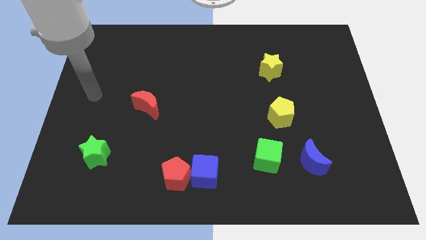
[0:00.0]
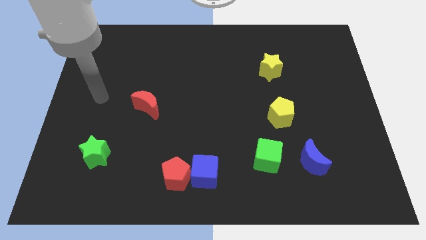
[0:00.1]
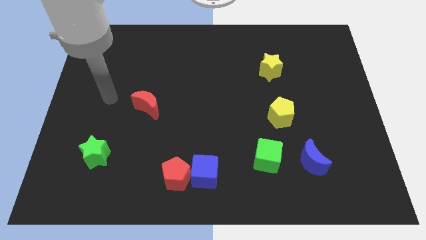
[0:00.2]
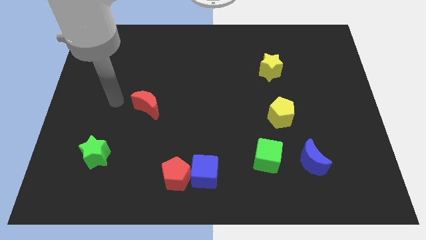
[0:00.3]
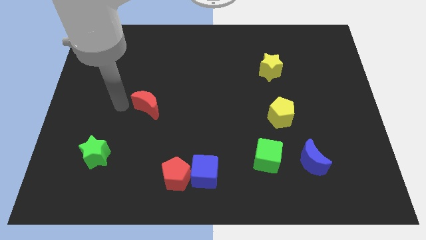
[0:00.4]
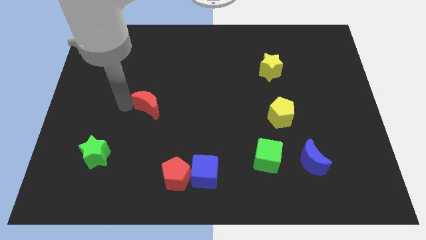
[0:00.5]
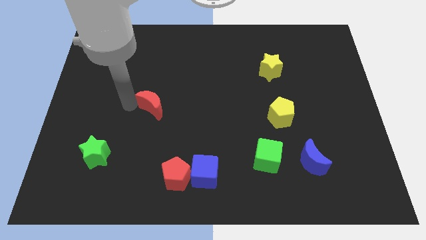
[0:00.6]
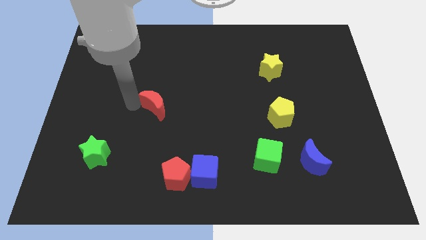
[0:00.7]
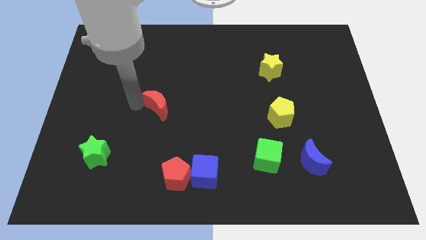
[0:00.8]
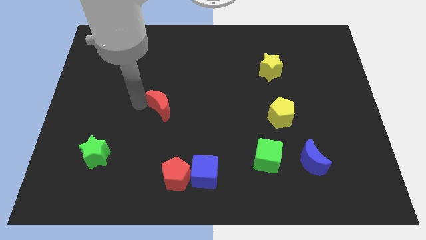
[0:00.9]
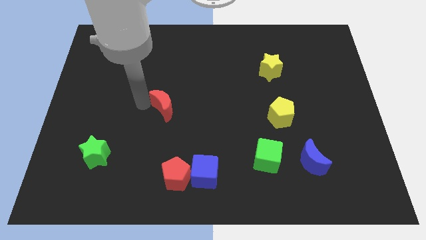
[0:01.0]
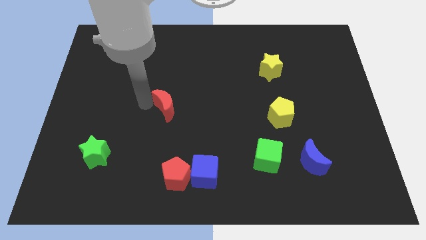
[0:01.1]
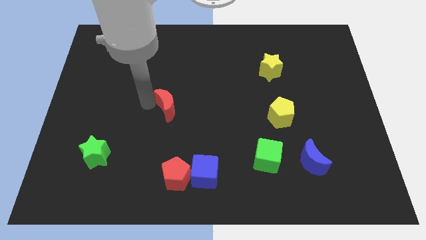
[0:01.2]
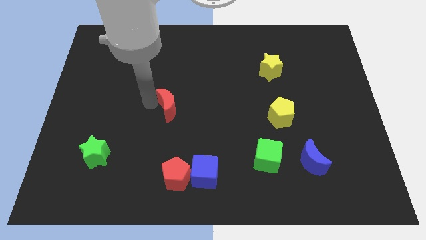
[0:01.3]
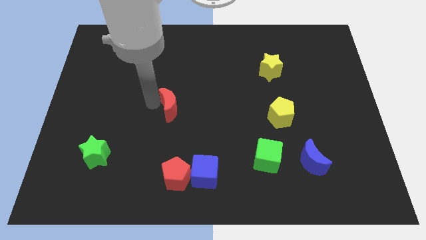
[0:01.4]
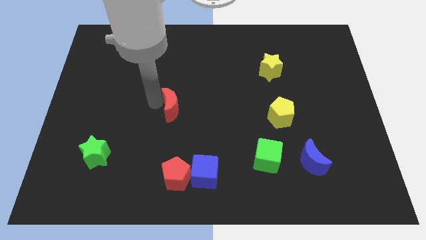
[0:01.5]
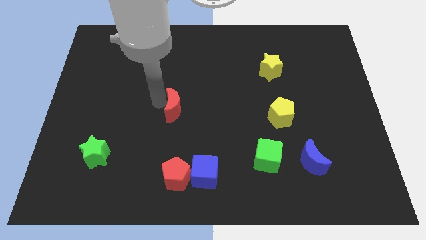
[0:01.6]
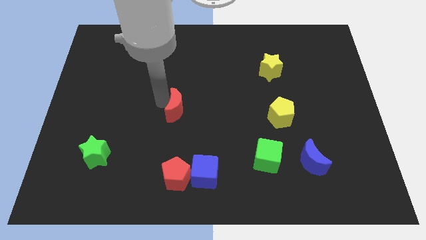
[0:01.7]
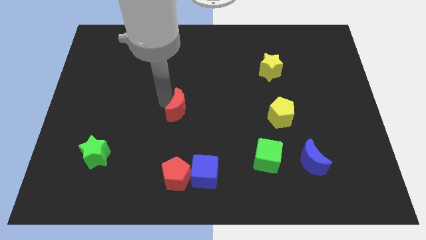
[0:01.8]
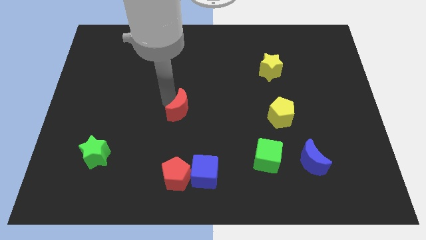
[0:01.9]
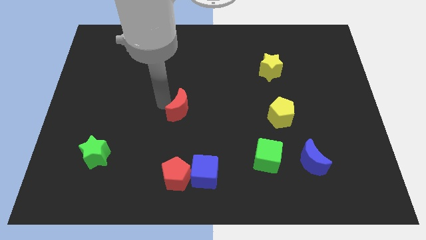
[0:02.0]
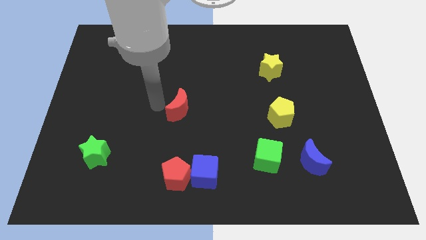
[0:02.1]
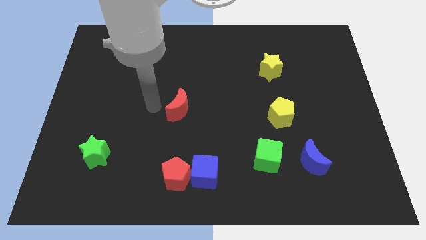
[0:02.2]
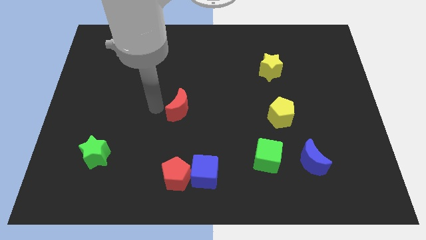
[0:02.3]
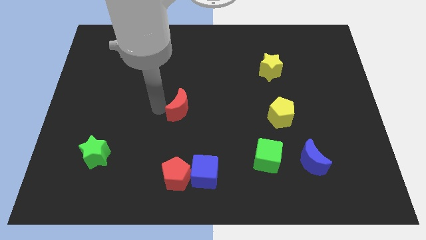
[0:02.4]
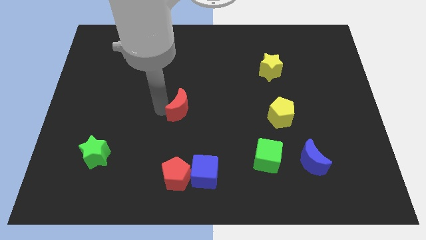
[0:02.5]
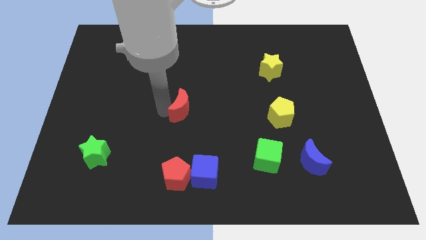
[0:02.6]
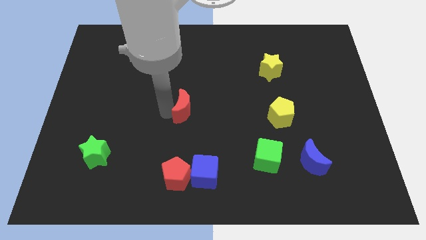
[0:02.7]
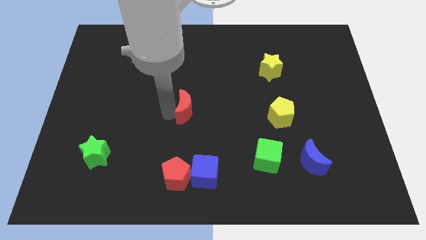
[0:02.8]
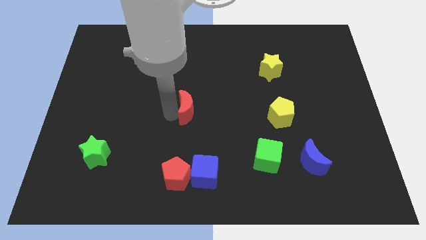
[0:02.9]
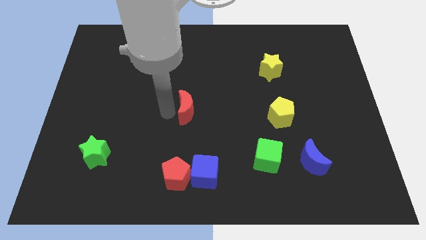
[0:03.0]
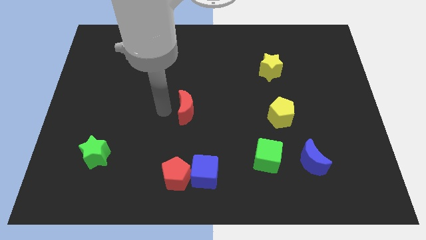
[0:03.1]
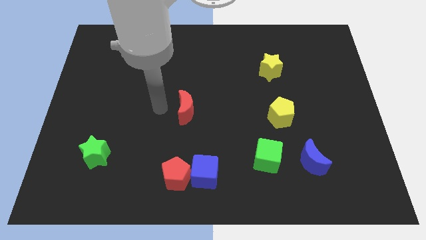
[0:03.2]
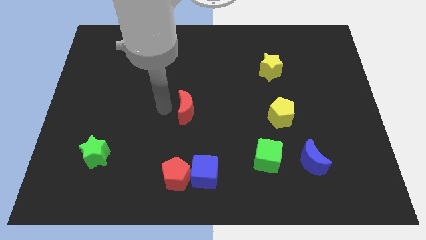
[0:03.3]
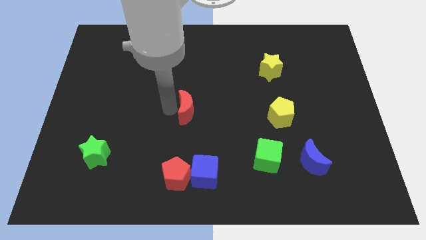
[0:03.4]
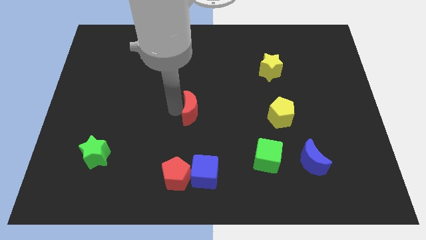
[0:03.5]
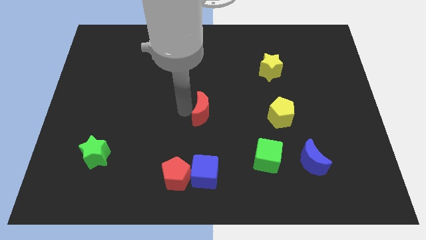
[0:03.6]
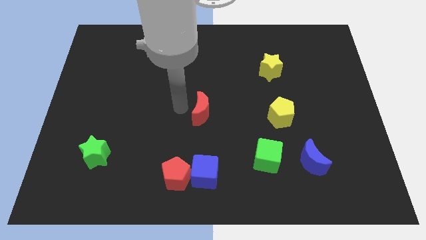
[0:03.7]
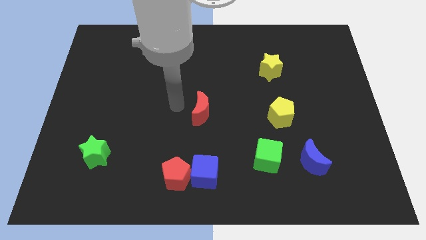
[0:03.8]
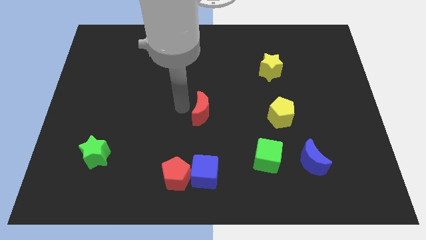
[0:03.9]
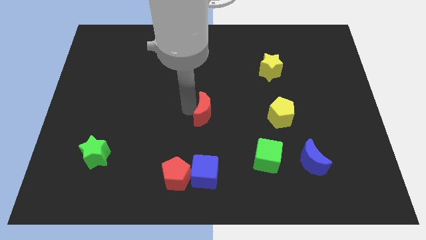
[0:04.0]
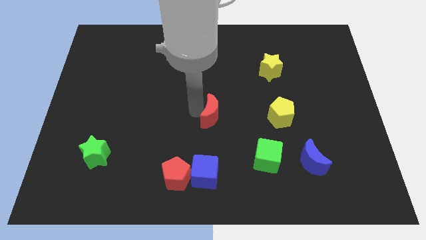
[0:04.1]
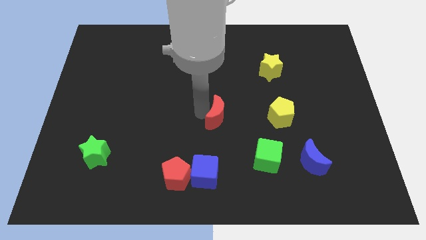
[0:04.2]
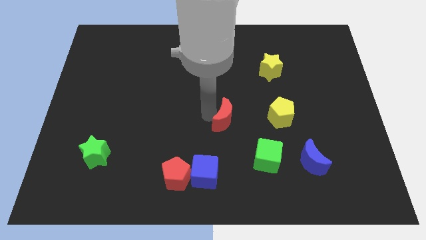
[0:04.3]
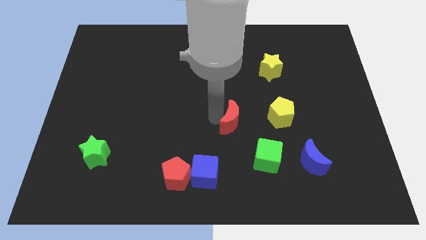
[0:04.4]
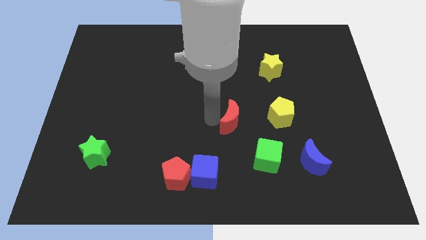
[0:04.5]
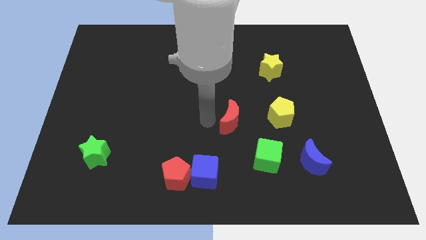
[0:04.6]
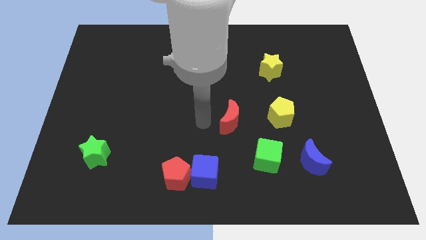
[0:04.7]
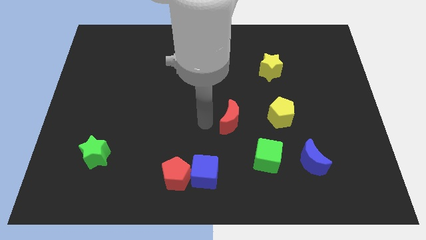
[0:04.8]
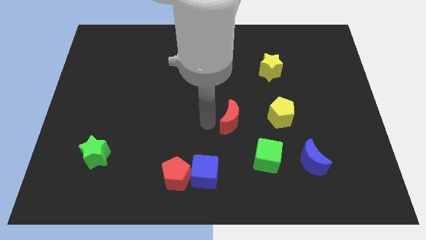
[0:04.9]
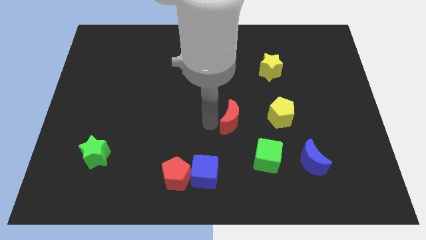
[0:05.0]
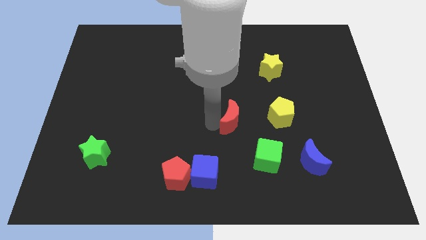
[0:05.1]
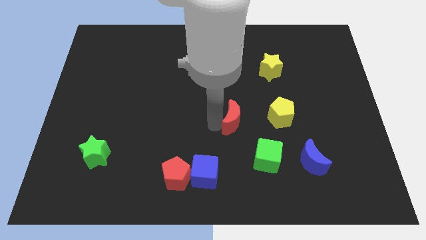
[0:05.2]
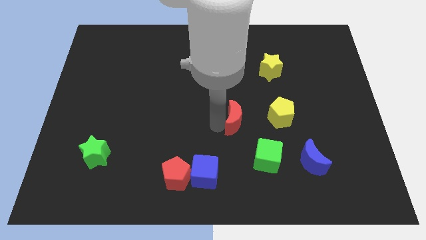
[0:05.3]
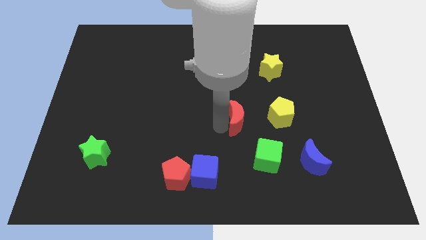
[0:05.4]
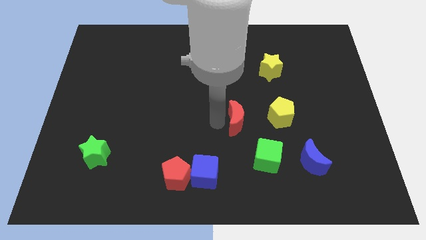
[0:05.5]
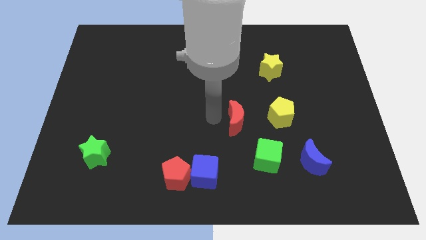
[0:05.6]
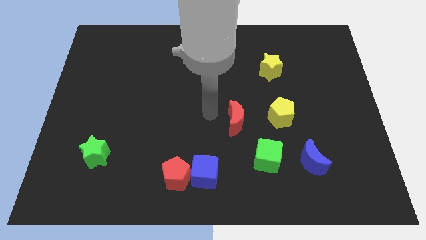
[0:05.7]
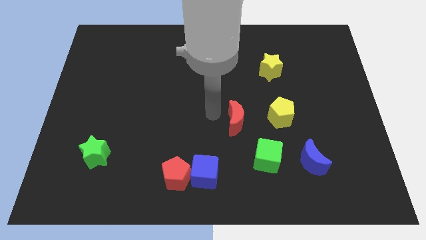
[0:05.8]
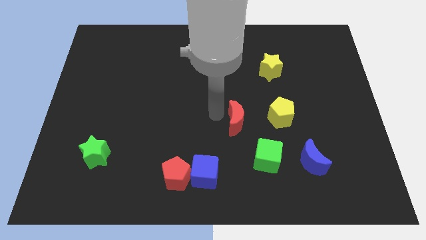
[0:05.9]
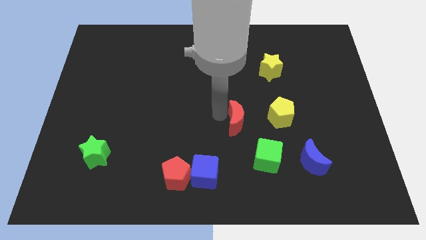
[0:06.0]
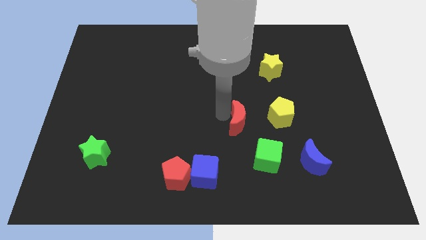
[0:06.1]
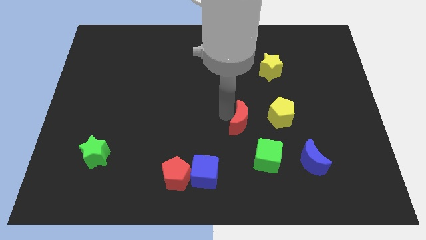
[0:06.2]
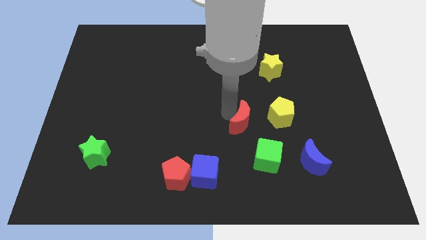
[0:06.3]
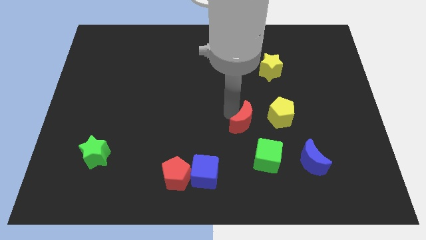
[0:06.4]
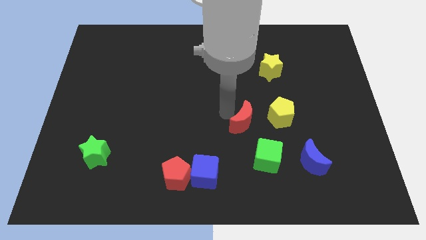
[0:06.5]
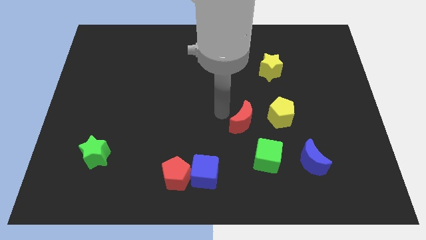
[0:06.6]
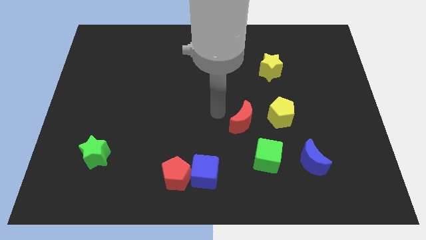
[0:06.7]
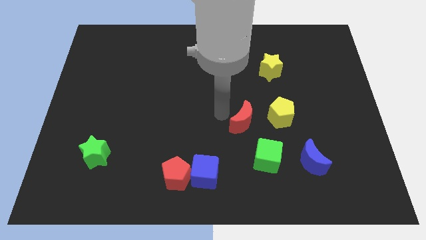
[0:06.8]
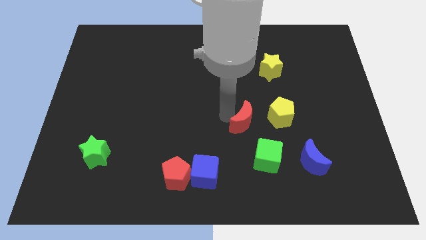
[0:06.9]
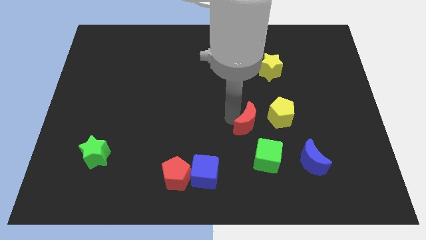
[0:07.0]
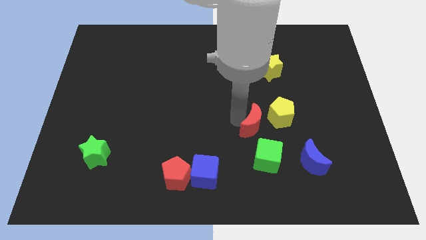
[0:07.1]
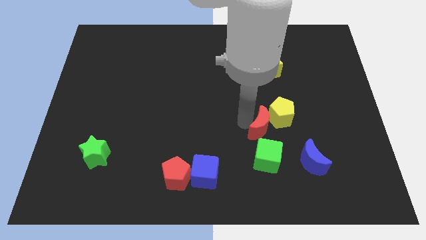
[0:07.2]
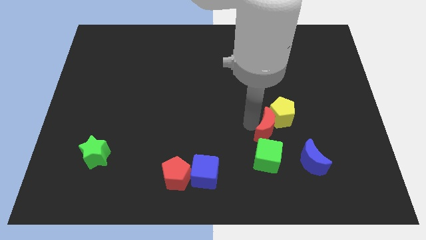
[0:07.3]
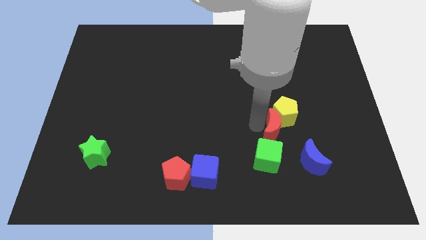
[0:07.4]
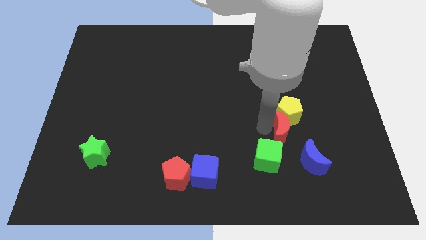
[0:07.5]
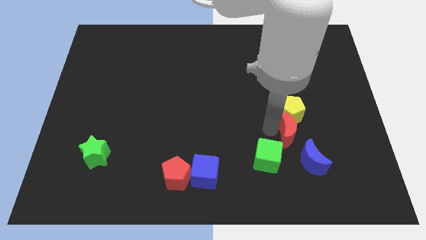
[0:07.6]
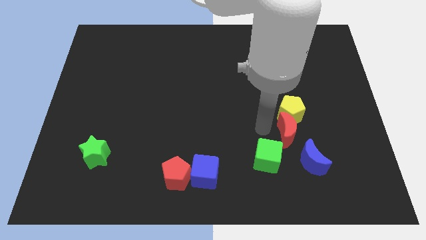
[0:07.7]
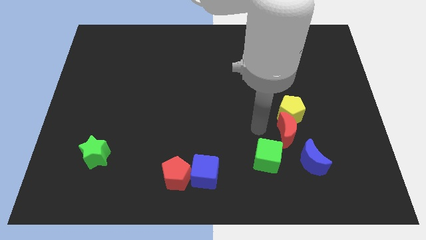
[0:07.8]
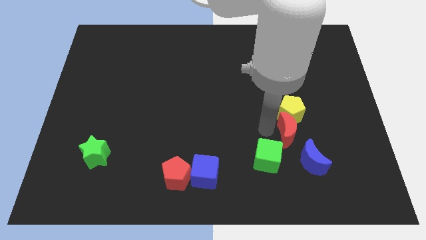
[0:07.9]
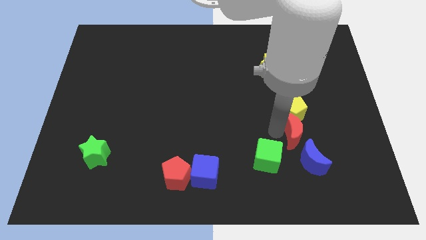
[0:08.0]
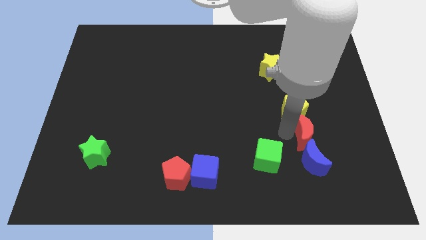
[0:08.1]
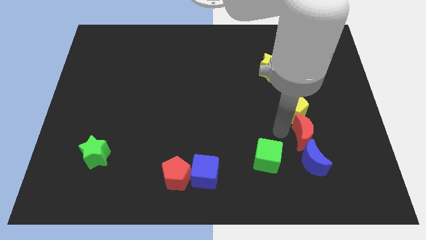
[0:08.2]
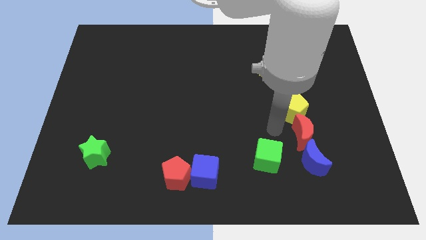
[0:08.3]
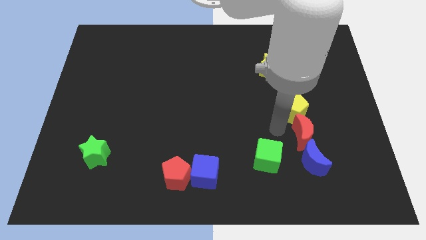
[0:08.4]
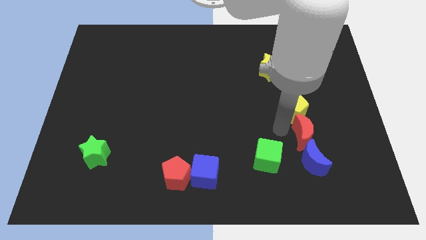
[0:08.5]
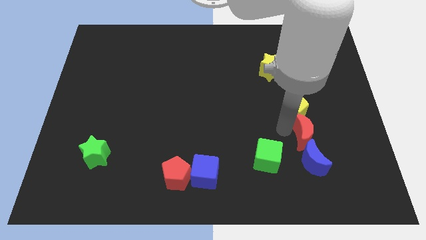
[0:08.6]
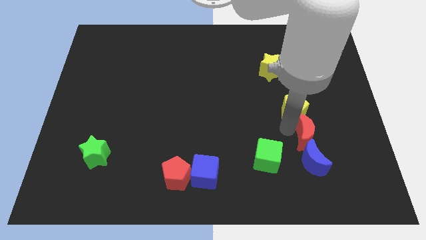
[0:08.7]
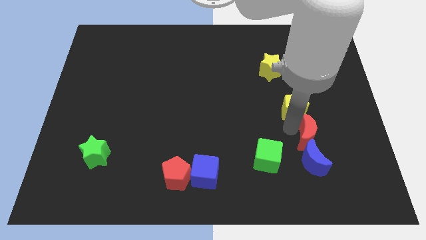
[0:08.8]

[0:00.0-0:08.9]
push the red moon to the top right side of the blue moon
